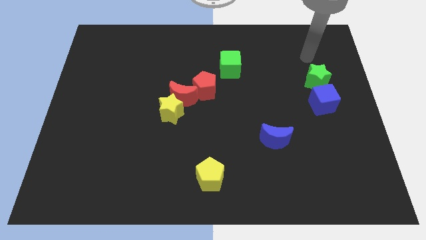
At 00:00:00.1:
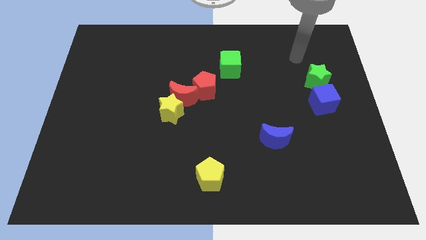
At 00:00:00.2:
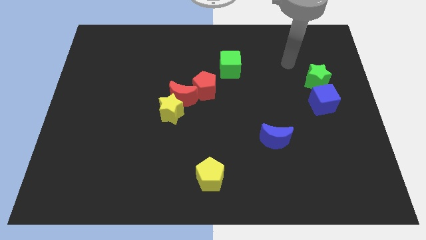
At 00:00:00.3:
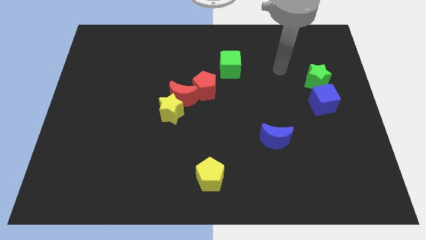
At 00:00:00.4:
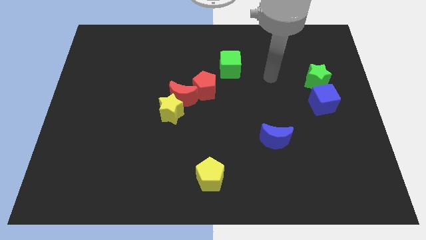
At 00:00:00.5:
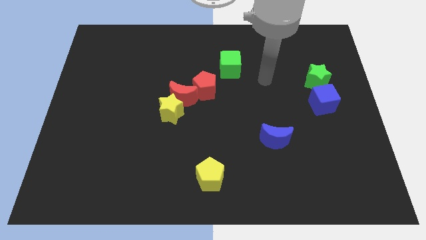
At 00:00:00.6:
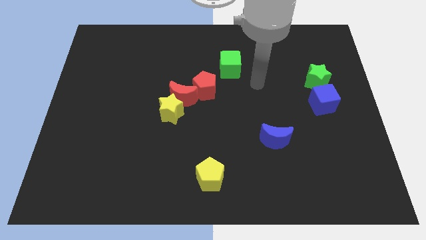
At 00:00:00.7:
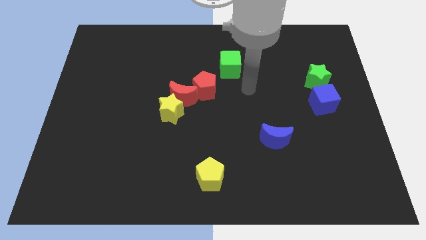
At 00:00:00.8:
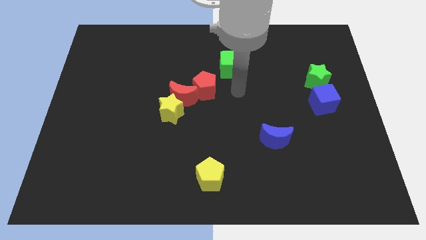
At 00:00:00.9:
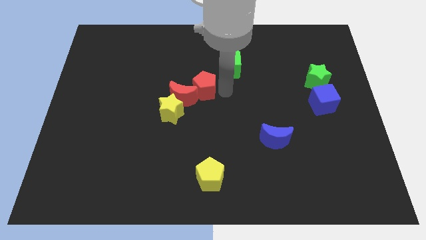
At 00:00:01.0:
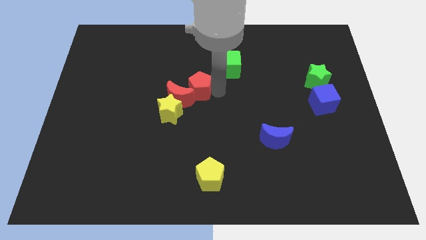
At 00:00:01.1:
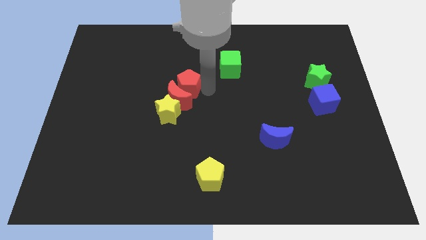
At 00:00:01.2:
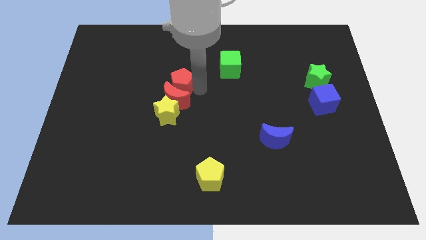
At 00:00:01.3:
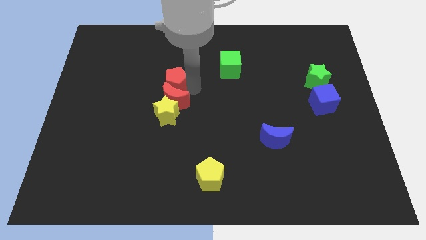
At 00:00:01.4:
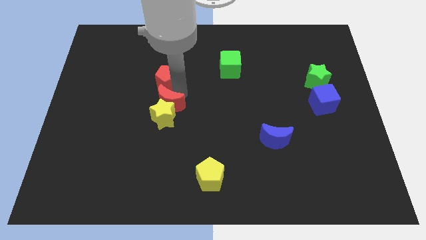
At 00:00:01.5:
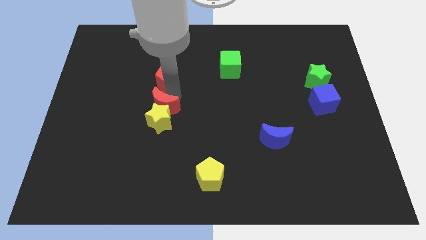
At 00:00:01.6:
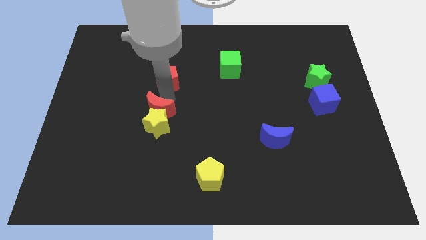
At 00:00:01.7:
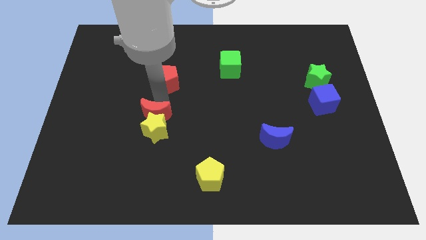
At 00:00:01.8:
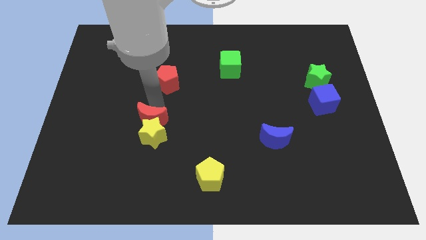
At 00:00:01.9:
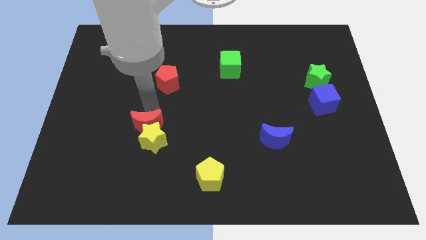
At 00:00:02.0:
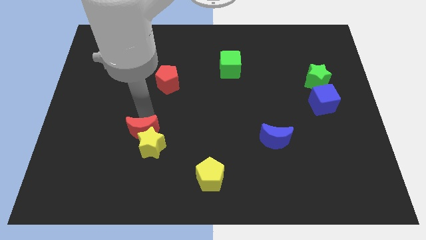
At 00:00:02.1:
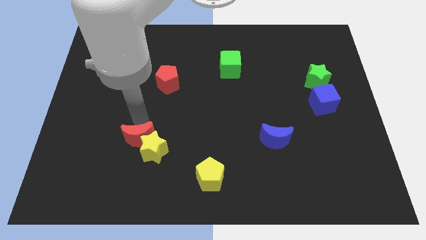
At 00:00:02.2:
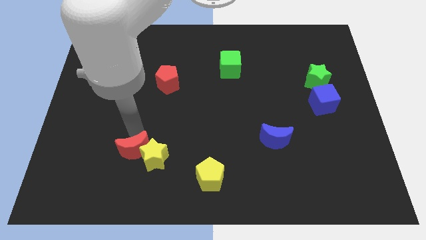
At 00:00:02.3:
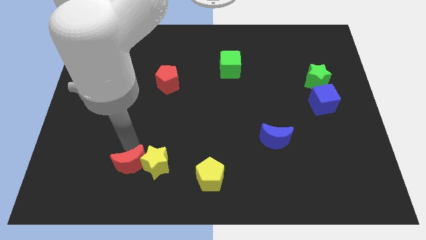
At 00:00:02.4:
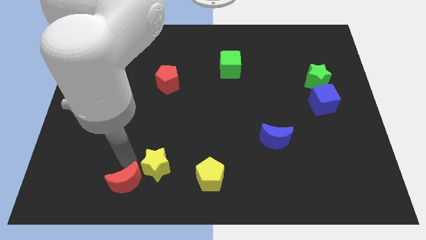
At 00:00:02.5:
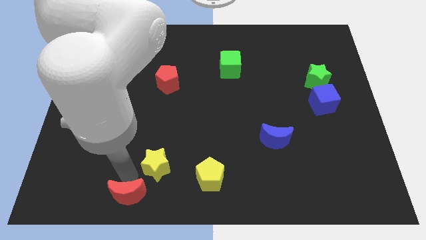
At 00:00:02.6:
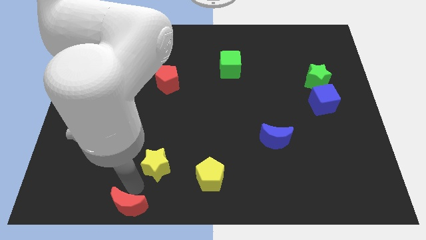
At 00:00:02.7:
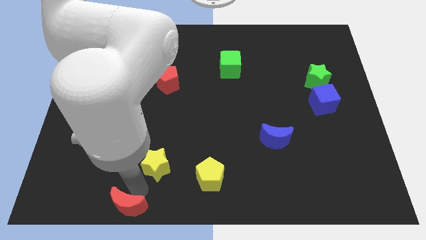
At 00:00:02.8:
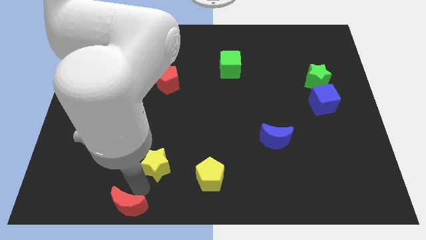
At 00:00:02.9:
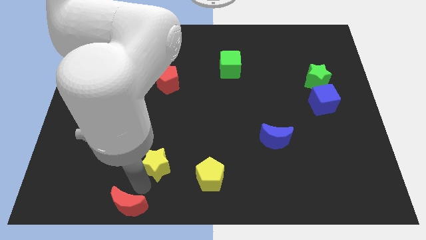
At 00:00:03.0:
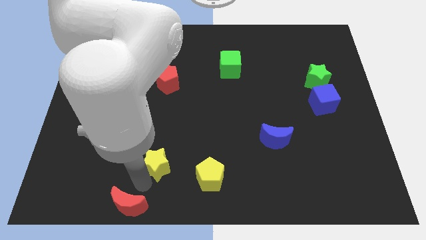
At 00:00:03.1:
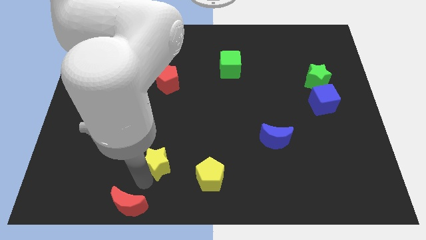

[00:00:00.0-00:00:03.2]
move the yellow star away from the red moon

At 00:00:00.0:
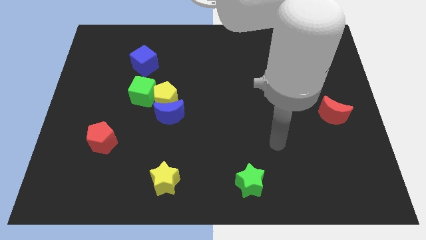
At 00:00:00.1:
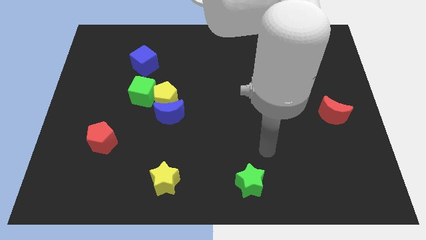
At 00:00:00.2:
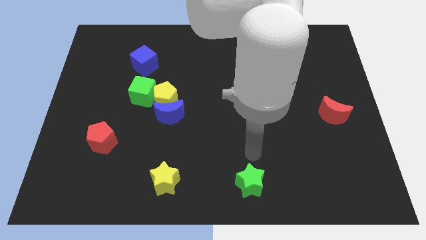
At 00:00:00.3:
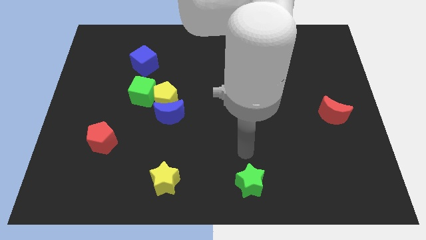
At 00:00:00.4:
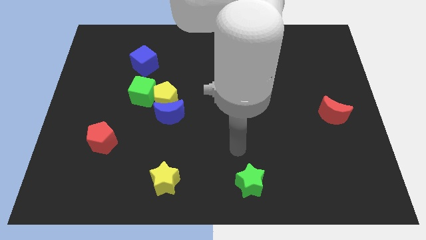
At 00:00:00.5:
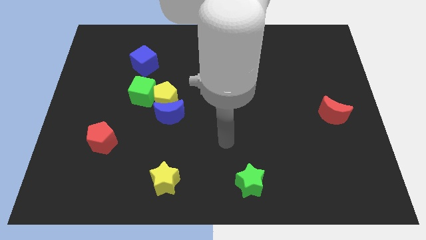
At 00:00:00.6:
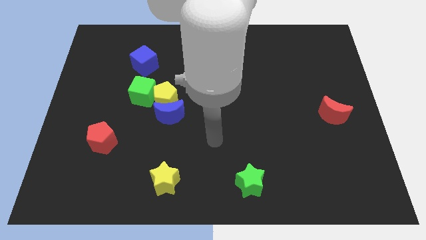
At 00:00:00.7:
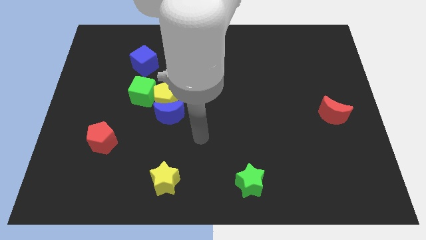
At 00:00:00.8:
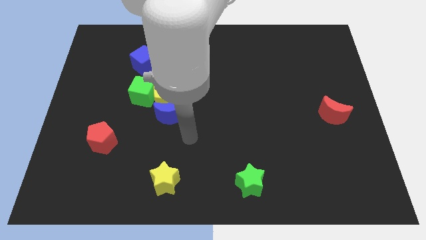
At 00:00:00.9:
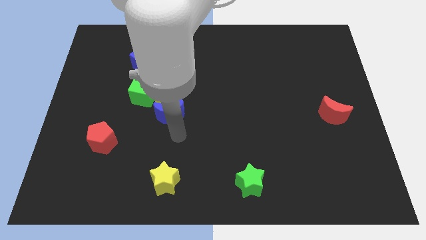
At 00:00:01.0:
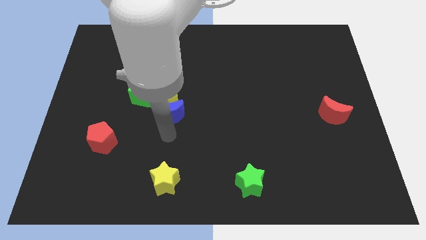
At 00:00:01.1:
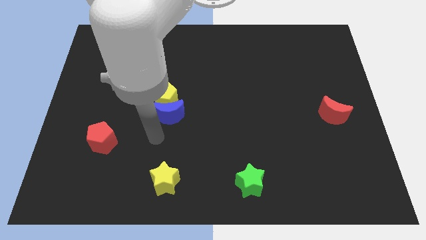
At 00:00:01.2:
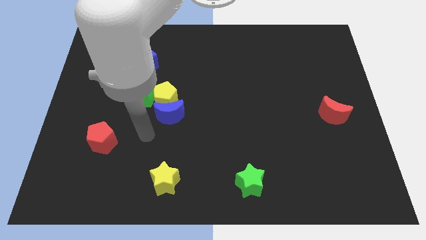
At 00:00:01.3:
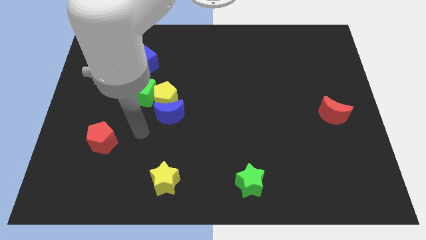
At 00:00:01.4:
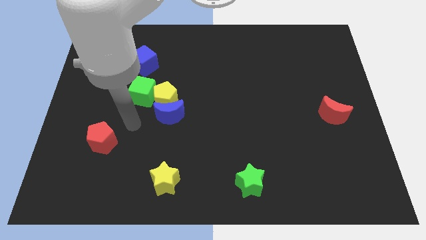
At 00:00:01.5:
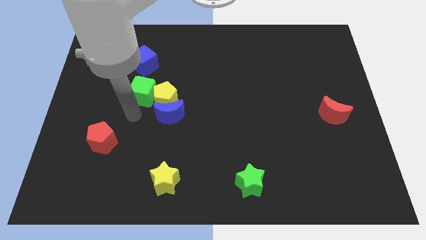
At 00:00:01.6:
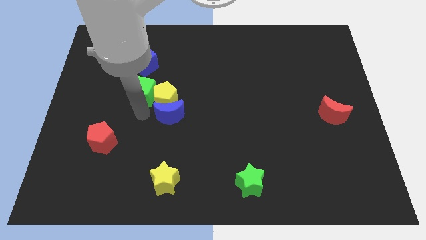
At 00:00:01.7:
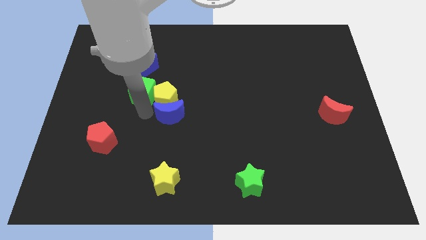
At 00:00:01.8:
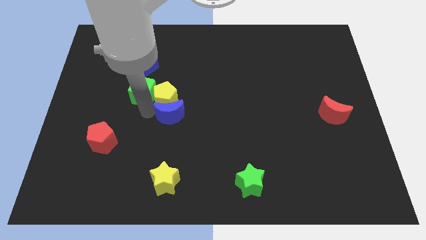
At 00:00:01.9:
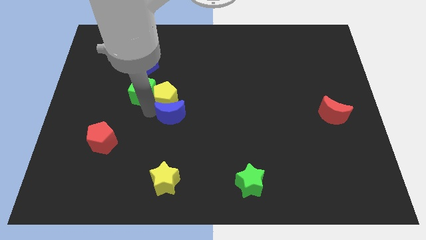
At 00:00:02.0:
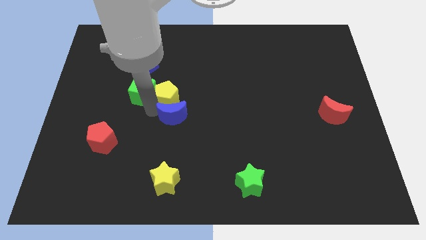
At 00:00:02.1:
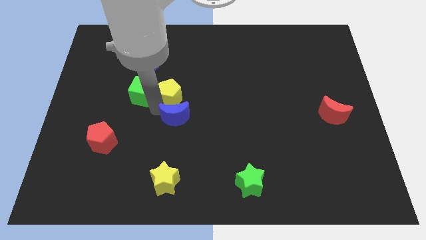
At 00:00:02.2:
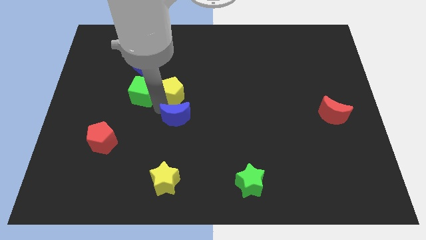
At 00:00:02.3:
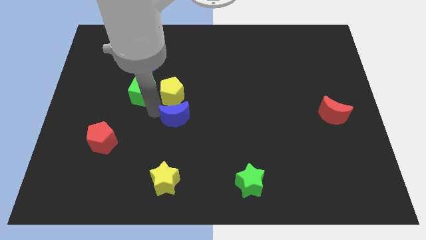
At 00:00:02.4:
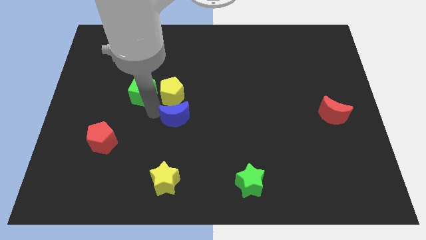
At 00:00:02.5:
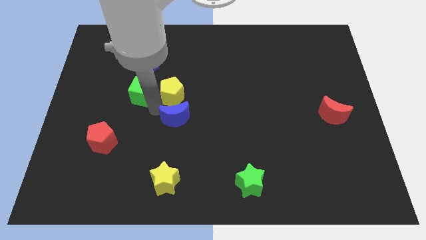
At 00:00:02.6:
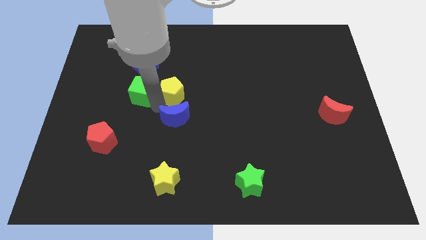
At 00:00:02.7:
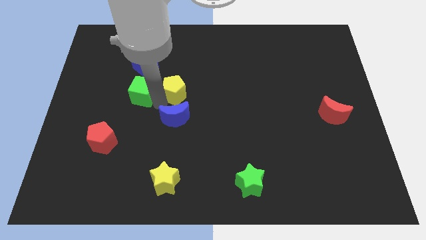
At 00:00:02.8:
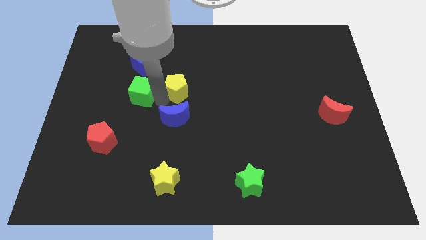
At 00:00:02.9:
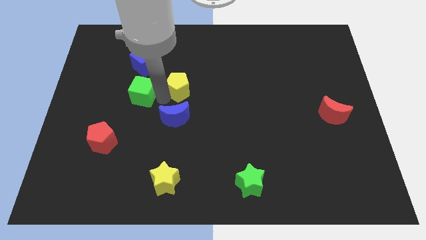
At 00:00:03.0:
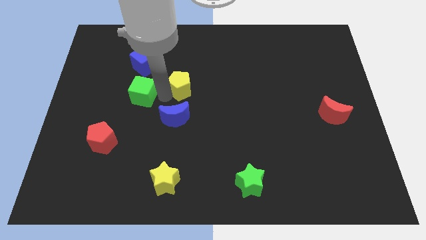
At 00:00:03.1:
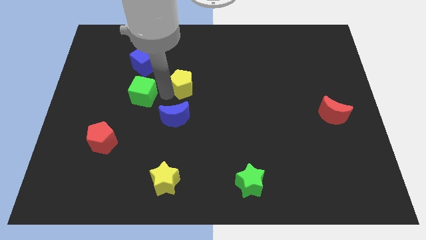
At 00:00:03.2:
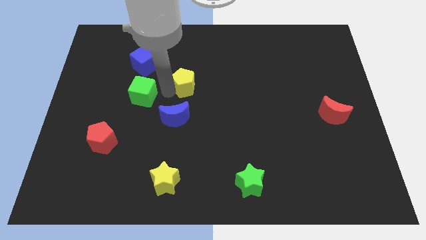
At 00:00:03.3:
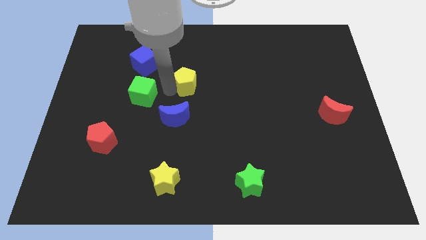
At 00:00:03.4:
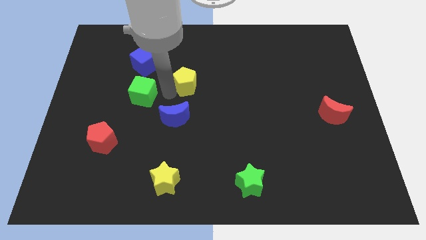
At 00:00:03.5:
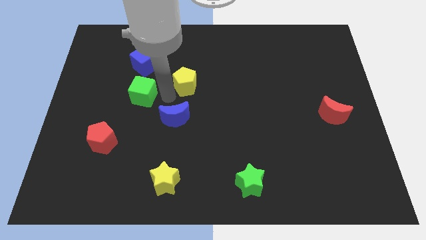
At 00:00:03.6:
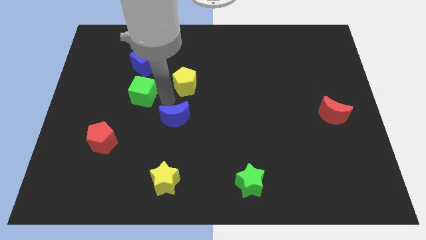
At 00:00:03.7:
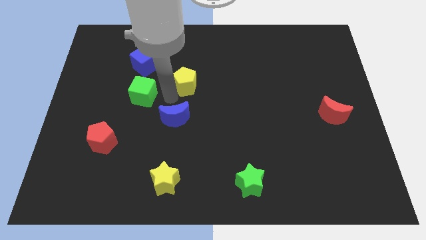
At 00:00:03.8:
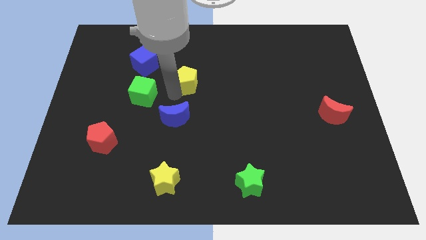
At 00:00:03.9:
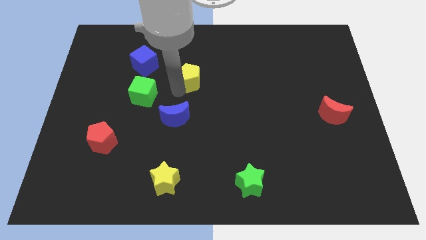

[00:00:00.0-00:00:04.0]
pull the yellow pentagon apart from the blue moon and green cube

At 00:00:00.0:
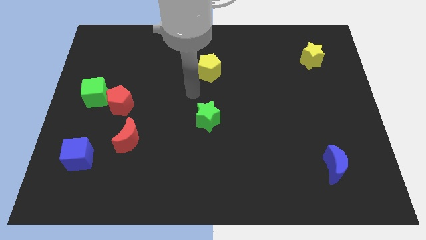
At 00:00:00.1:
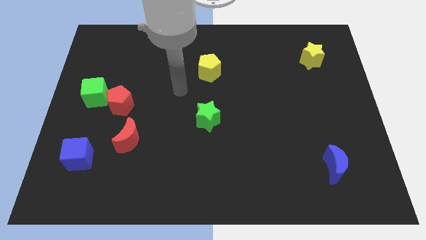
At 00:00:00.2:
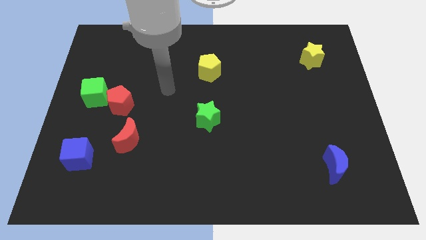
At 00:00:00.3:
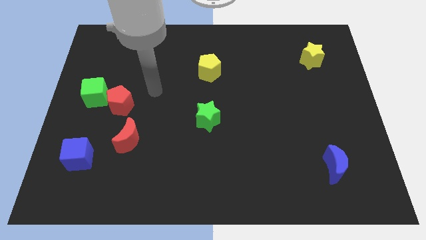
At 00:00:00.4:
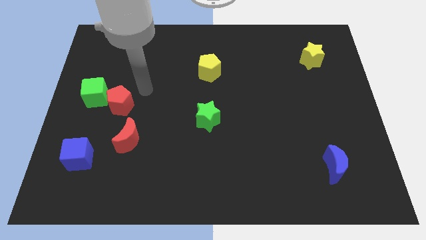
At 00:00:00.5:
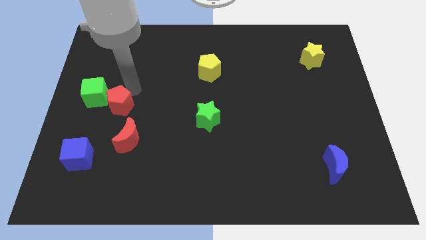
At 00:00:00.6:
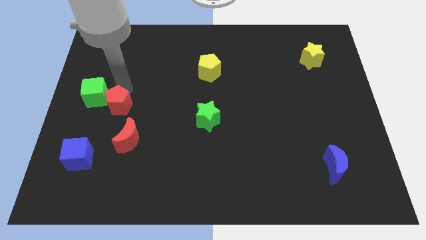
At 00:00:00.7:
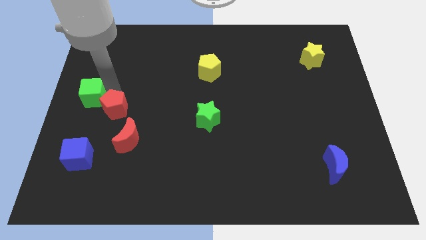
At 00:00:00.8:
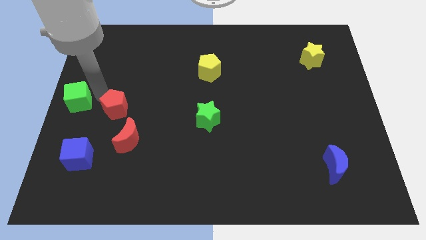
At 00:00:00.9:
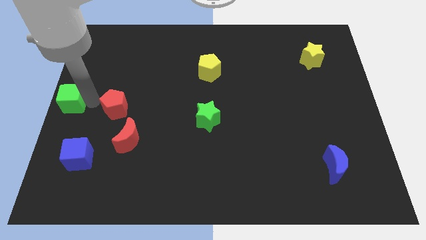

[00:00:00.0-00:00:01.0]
pull the red pentagon apart from the green cube

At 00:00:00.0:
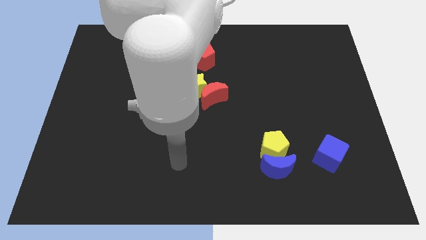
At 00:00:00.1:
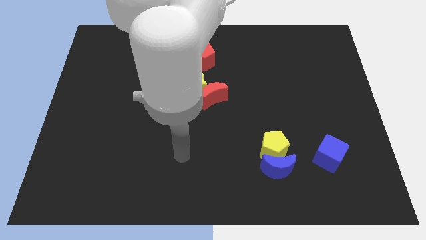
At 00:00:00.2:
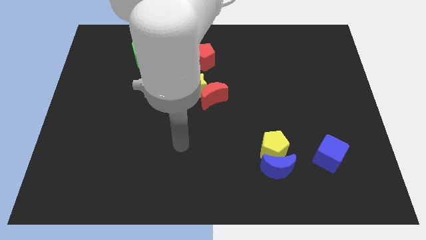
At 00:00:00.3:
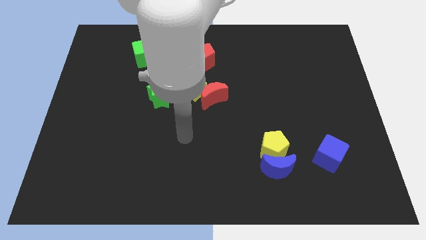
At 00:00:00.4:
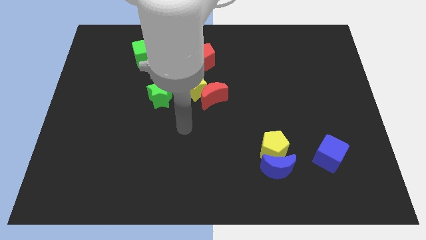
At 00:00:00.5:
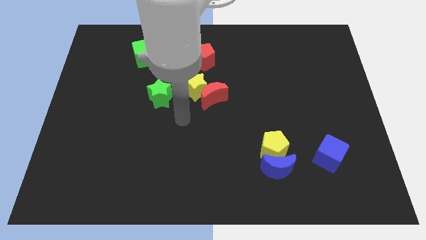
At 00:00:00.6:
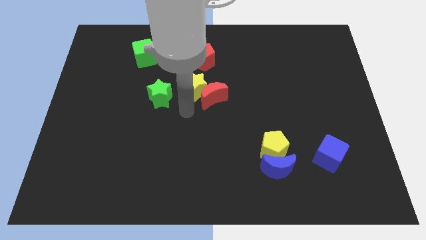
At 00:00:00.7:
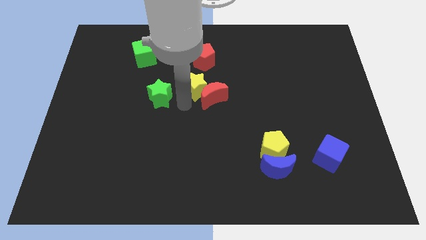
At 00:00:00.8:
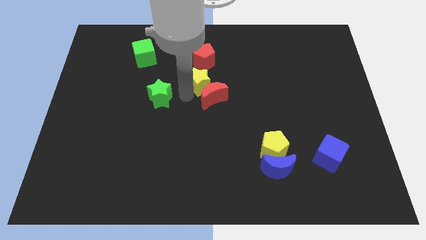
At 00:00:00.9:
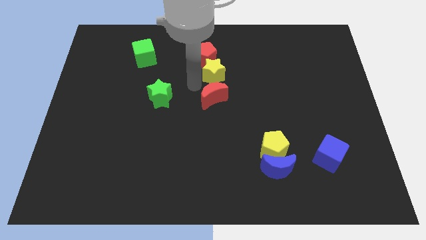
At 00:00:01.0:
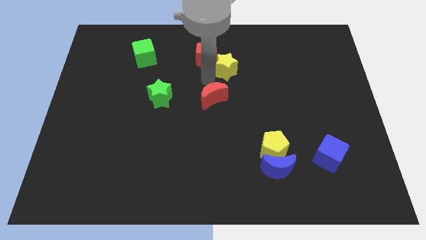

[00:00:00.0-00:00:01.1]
move the red moon away from the yellow star
